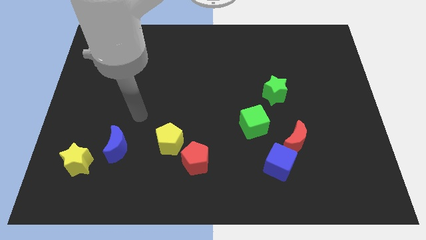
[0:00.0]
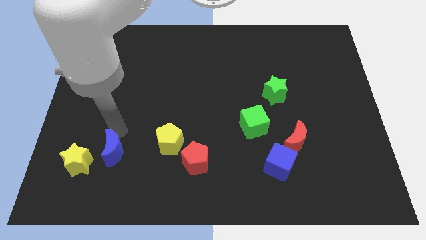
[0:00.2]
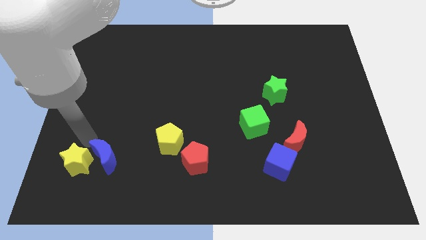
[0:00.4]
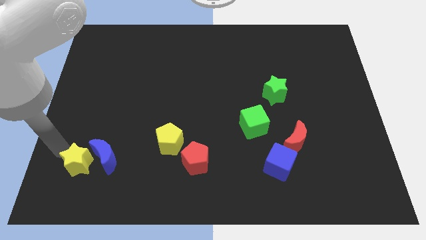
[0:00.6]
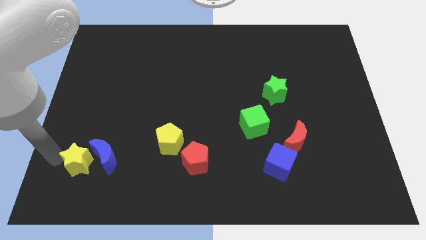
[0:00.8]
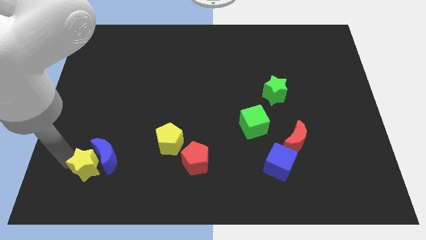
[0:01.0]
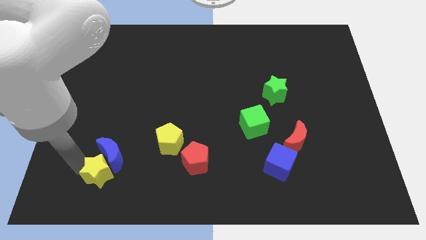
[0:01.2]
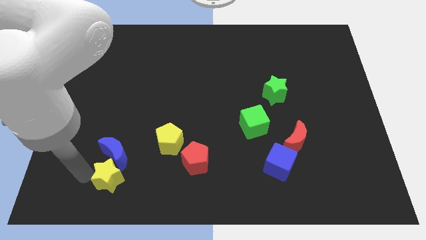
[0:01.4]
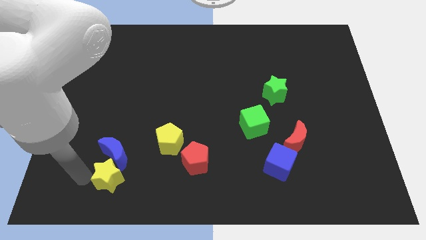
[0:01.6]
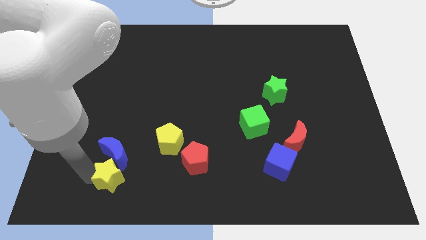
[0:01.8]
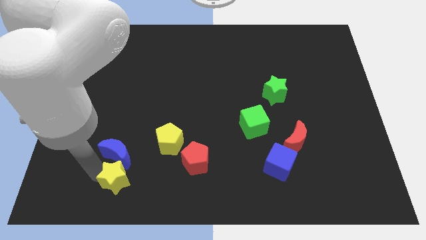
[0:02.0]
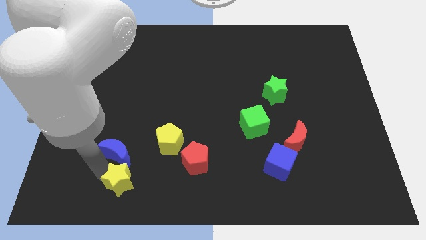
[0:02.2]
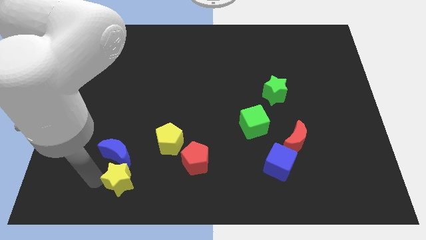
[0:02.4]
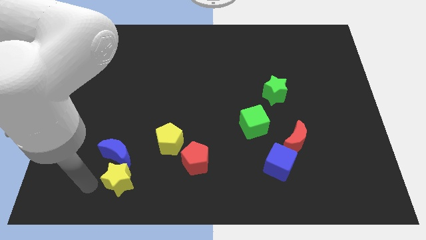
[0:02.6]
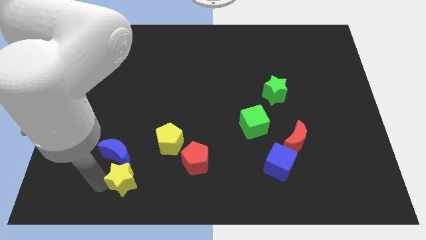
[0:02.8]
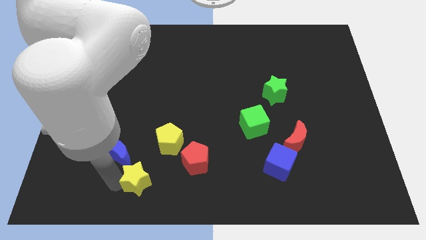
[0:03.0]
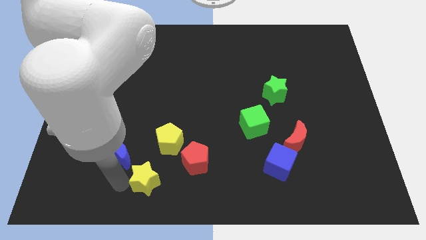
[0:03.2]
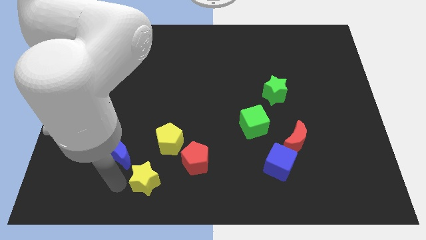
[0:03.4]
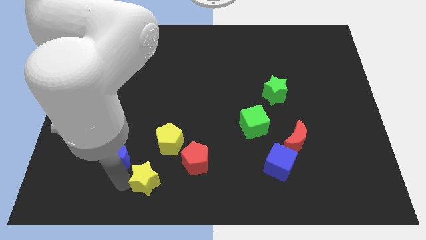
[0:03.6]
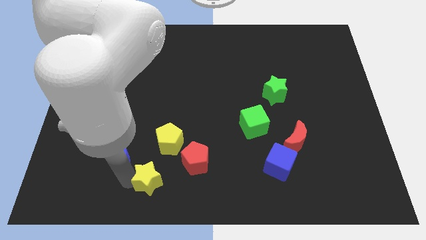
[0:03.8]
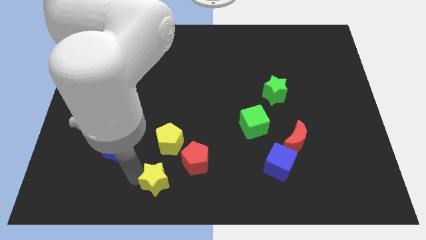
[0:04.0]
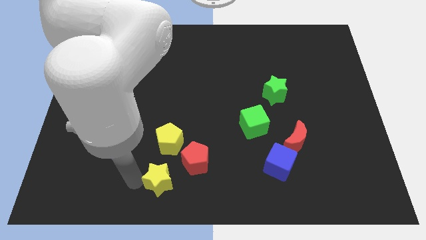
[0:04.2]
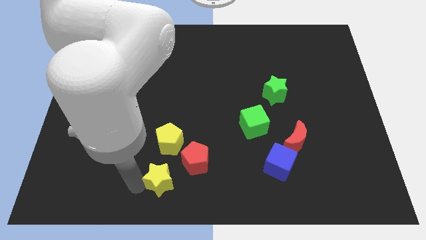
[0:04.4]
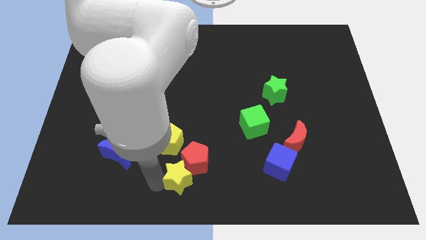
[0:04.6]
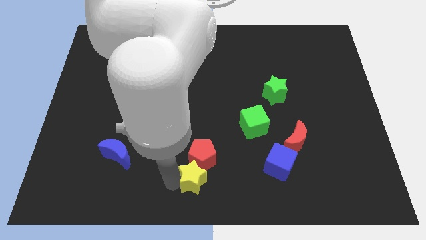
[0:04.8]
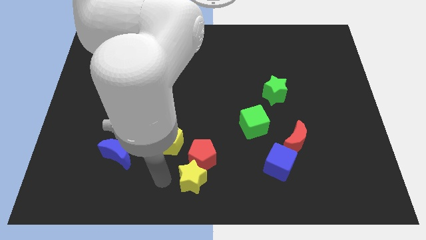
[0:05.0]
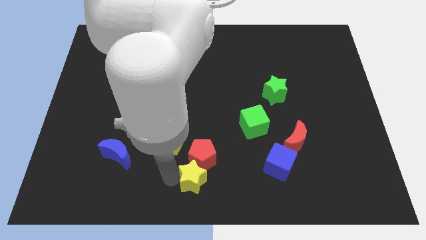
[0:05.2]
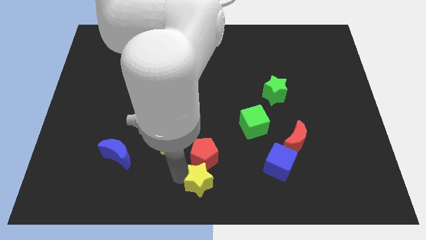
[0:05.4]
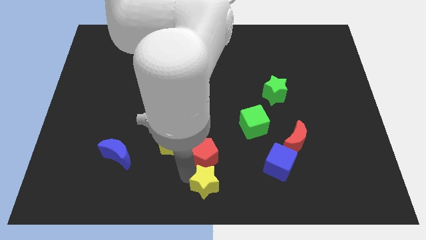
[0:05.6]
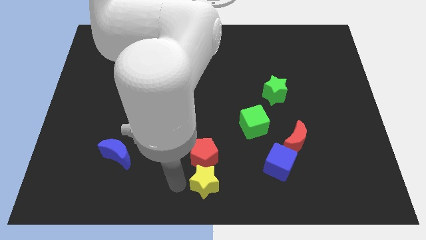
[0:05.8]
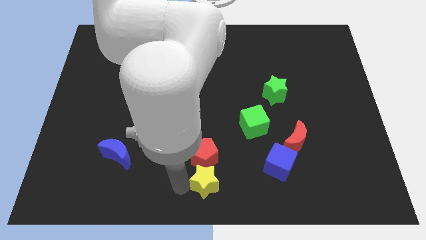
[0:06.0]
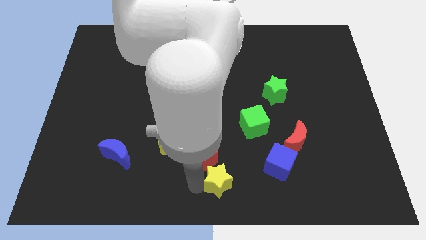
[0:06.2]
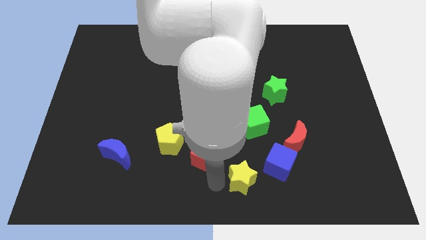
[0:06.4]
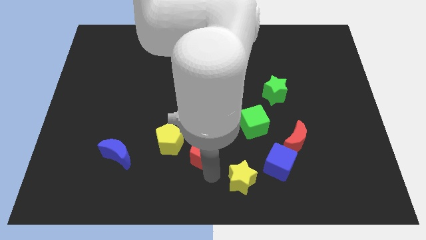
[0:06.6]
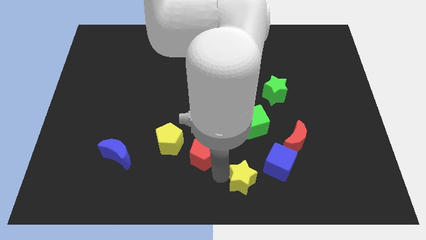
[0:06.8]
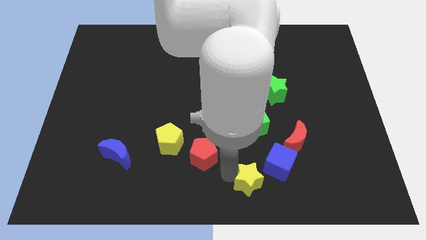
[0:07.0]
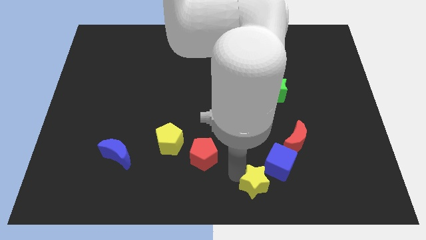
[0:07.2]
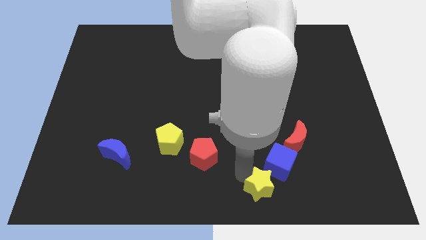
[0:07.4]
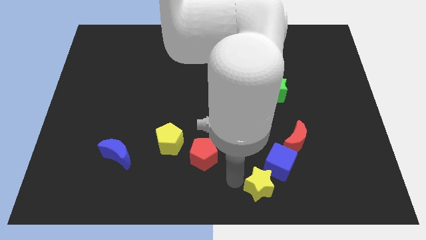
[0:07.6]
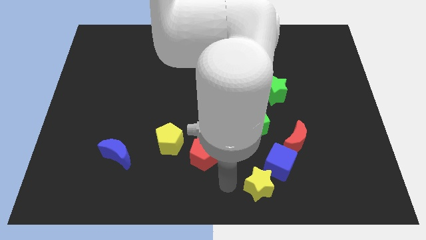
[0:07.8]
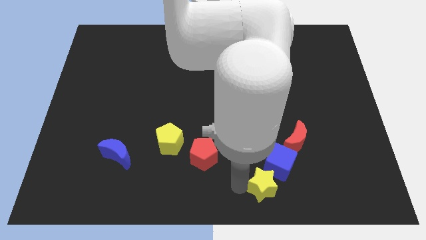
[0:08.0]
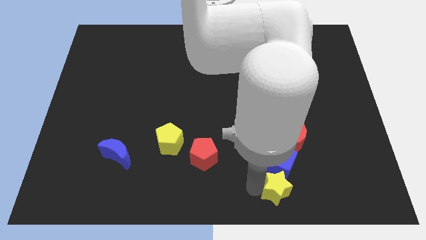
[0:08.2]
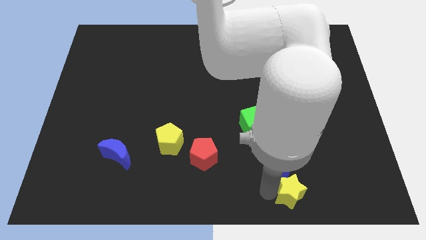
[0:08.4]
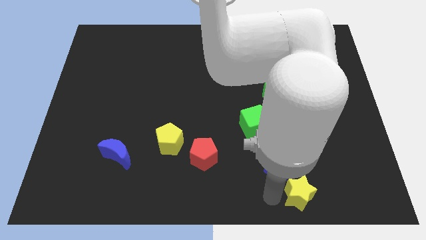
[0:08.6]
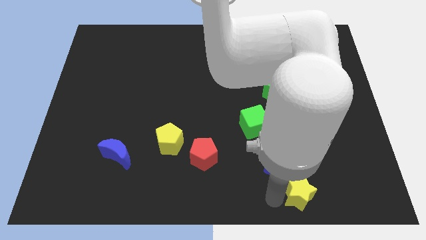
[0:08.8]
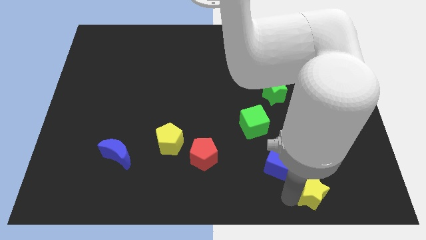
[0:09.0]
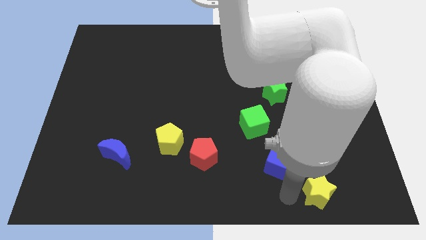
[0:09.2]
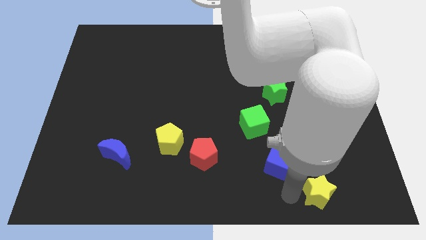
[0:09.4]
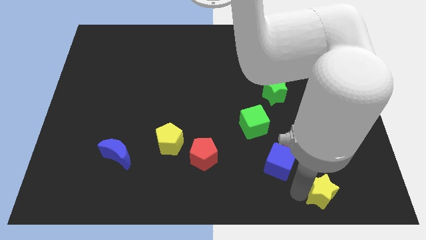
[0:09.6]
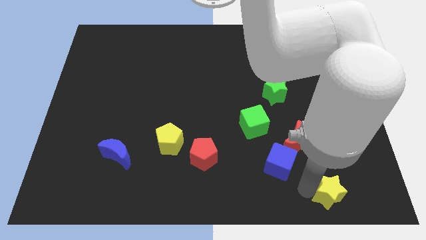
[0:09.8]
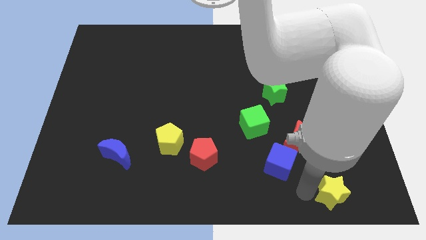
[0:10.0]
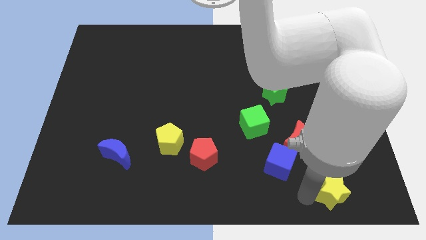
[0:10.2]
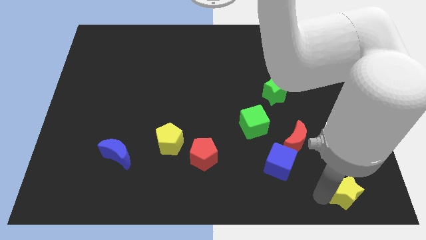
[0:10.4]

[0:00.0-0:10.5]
move the yellow star to the lower right corner
